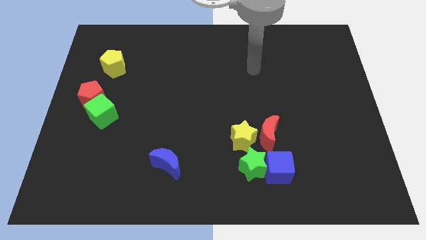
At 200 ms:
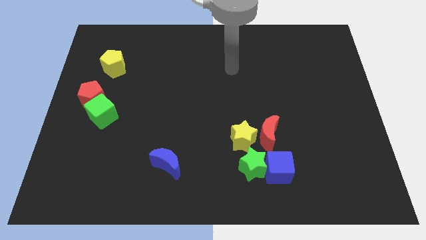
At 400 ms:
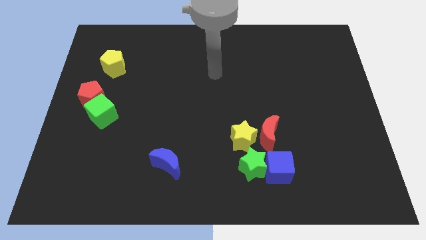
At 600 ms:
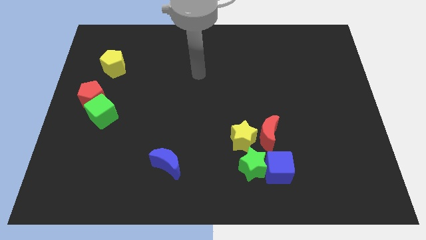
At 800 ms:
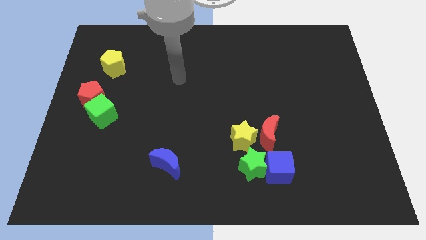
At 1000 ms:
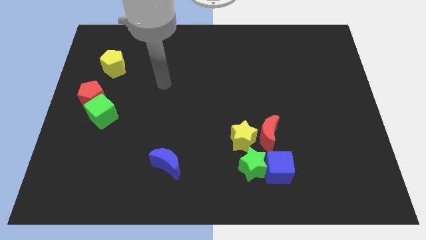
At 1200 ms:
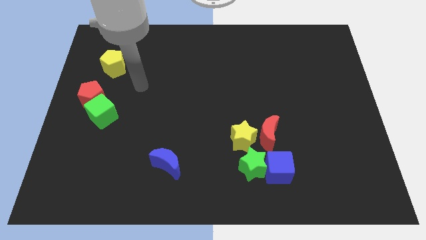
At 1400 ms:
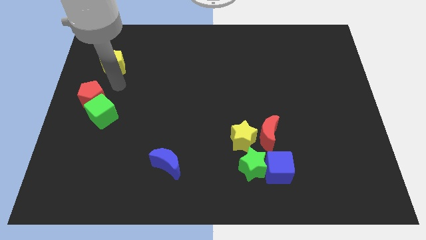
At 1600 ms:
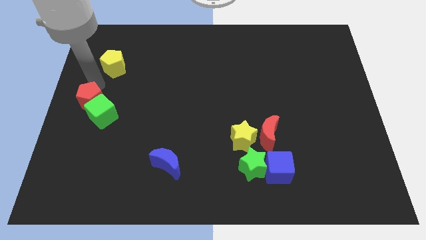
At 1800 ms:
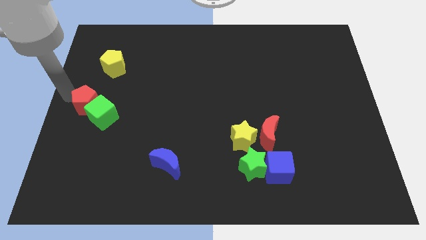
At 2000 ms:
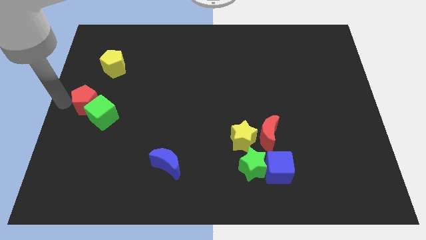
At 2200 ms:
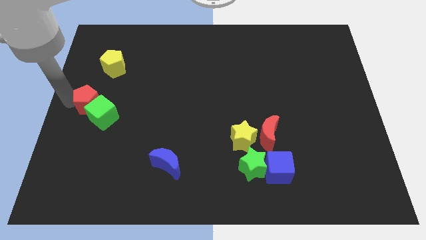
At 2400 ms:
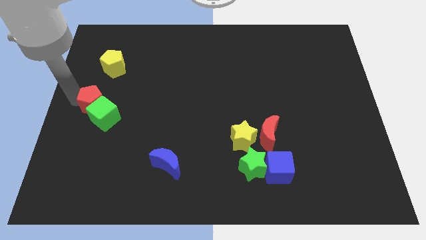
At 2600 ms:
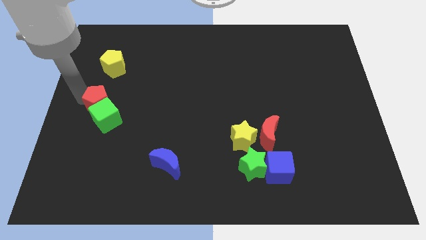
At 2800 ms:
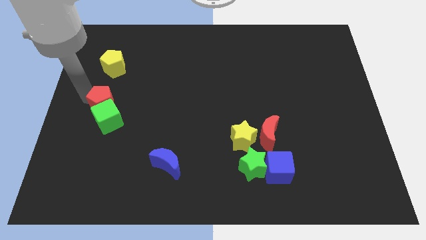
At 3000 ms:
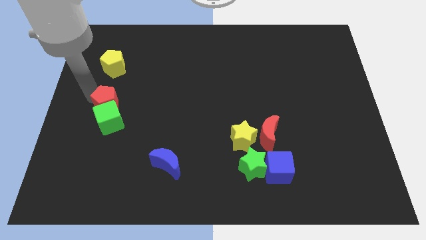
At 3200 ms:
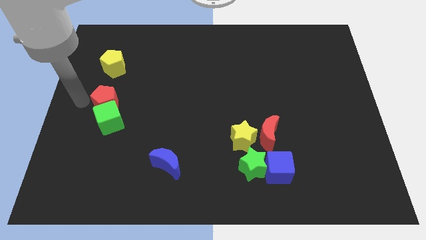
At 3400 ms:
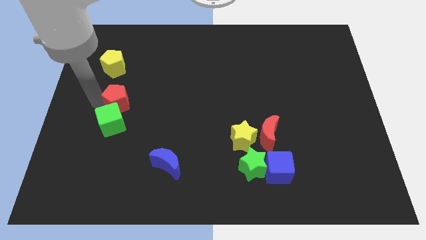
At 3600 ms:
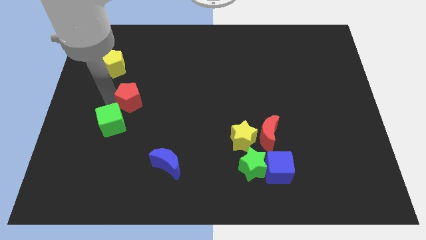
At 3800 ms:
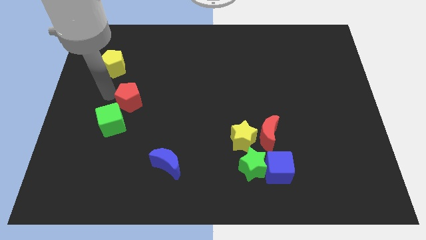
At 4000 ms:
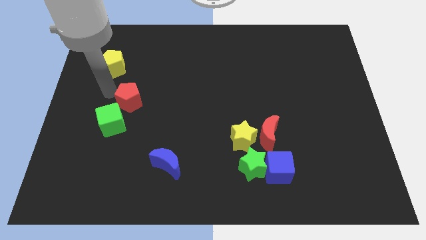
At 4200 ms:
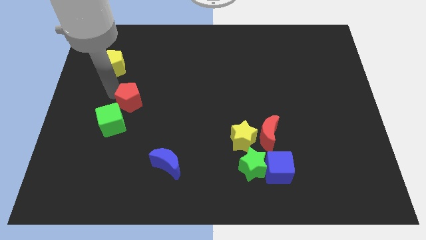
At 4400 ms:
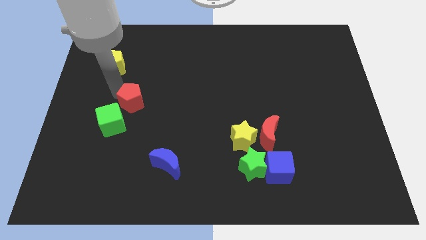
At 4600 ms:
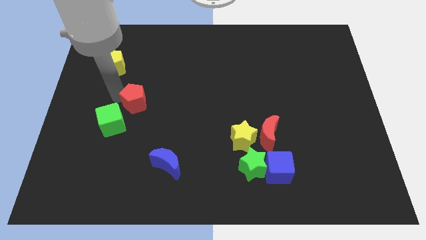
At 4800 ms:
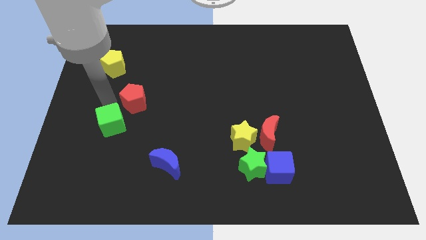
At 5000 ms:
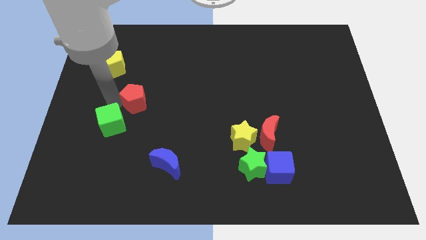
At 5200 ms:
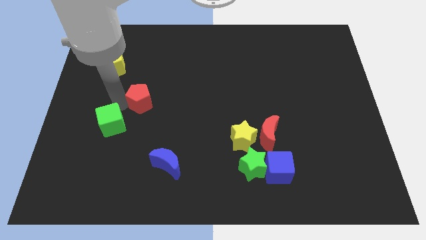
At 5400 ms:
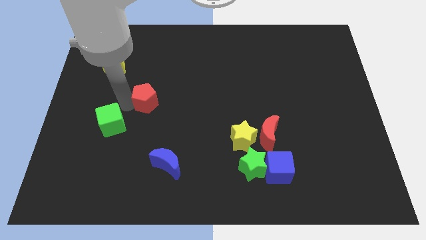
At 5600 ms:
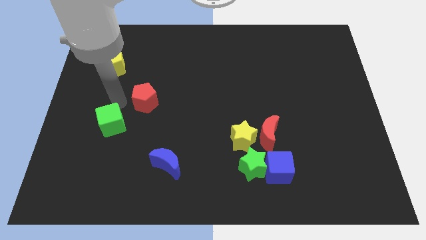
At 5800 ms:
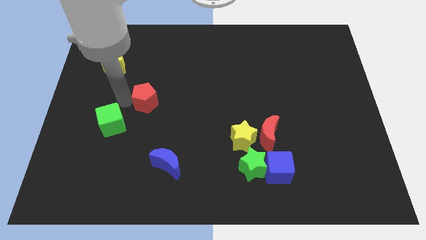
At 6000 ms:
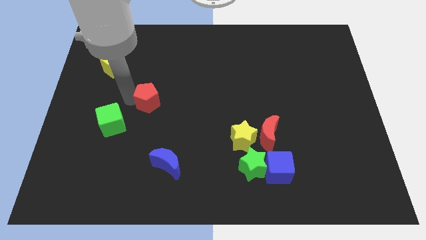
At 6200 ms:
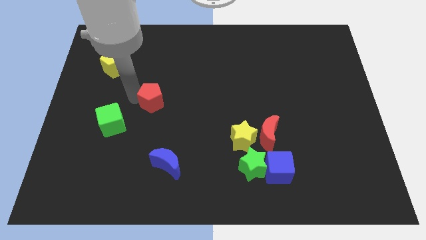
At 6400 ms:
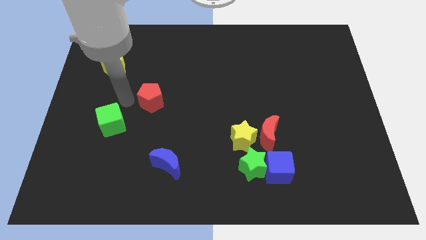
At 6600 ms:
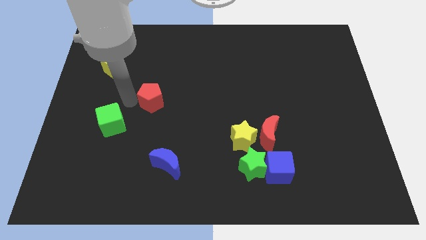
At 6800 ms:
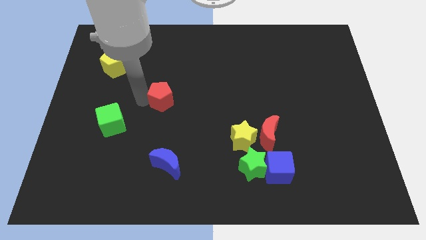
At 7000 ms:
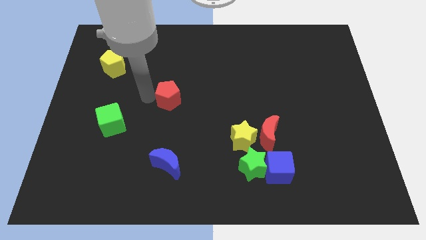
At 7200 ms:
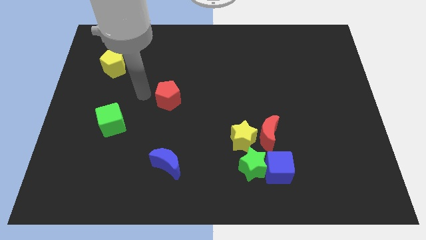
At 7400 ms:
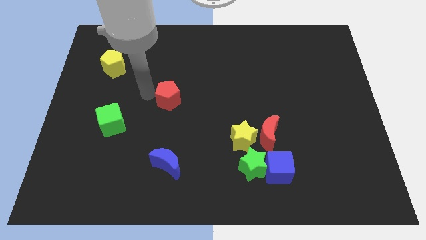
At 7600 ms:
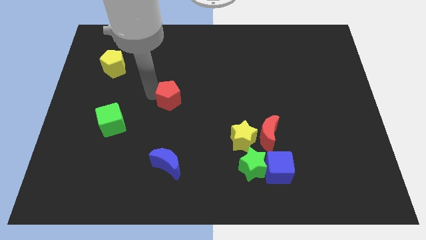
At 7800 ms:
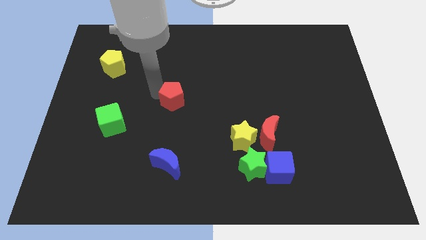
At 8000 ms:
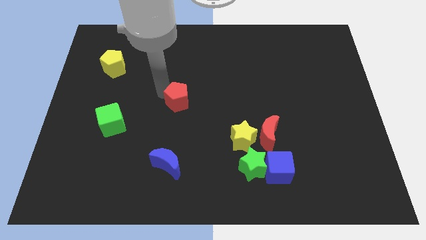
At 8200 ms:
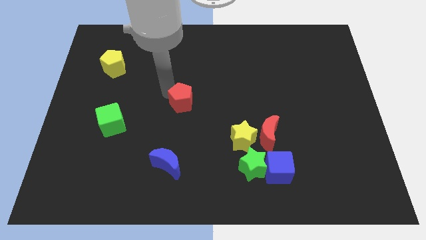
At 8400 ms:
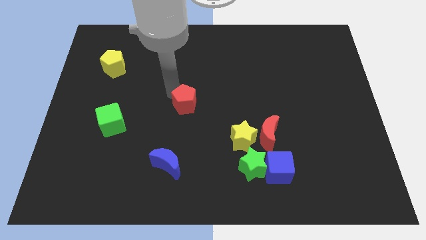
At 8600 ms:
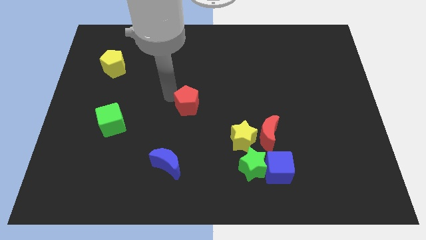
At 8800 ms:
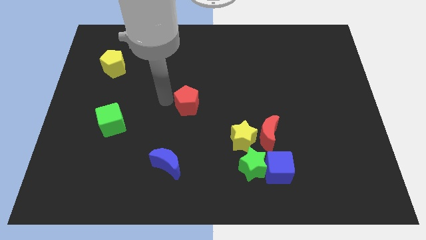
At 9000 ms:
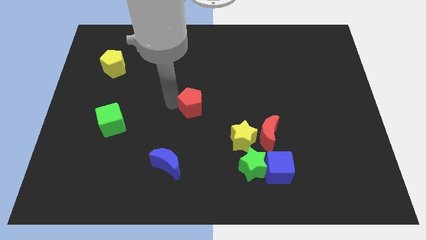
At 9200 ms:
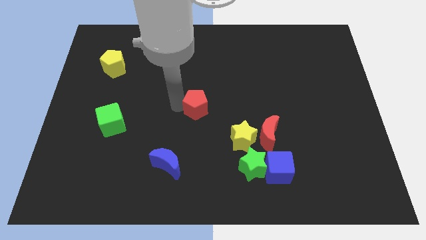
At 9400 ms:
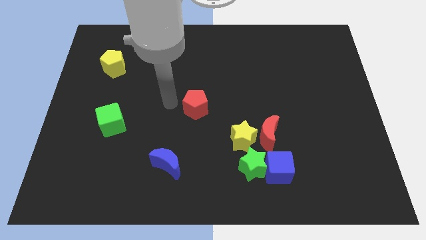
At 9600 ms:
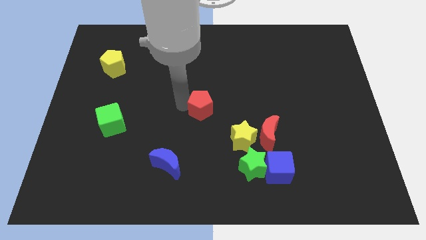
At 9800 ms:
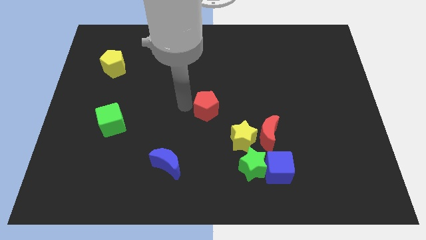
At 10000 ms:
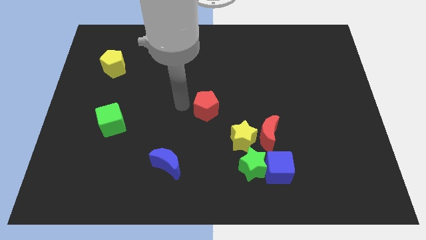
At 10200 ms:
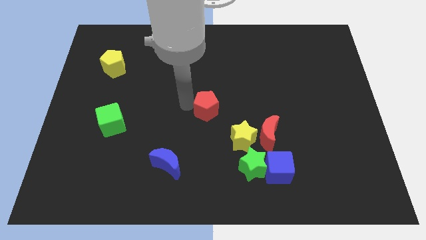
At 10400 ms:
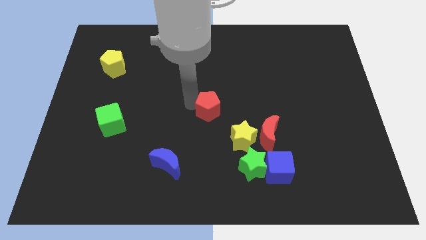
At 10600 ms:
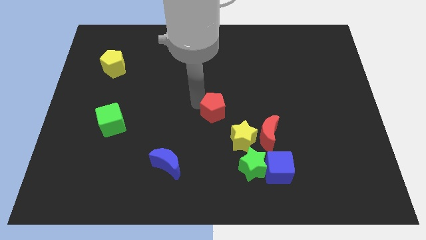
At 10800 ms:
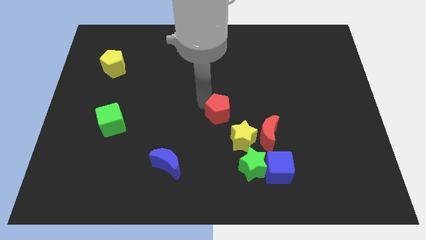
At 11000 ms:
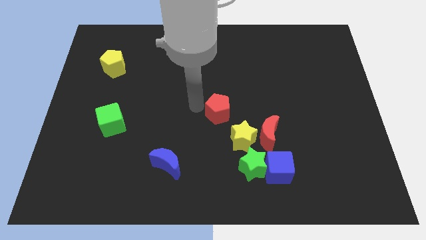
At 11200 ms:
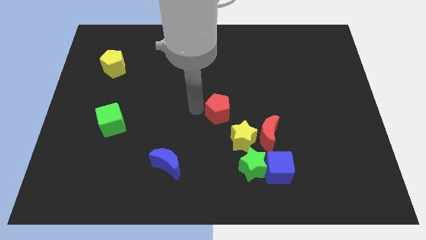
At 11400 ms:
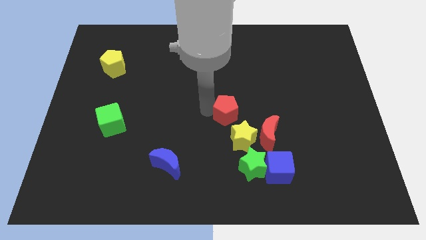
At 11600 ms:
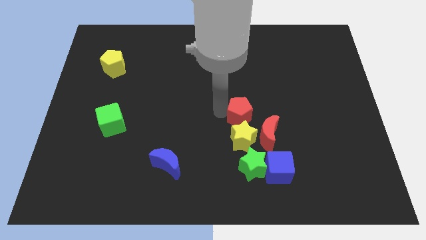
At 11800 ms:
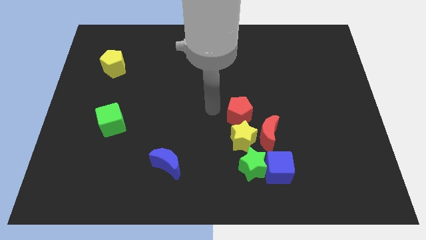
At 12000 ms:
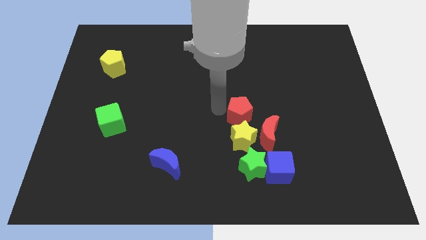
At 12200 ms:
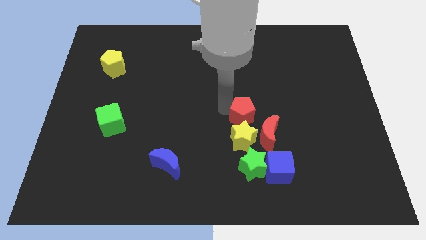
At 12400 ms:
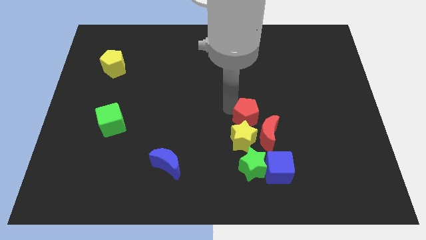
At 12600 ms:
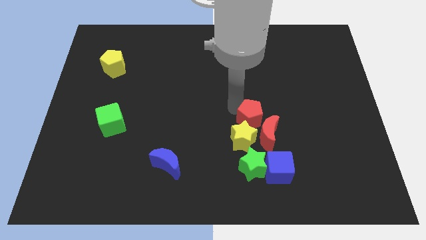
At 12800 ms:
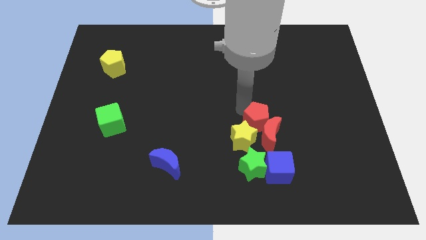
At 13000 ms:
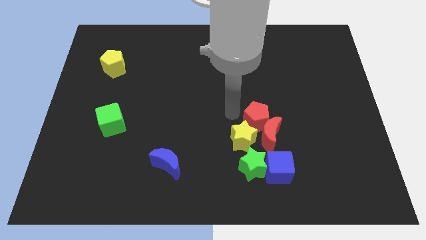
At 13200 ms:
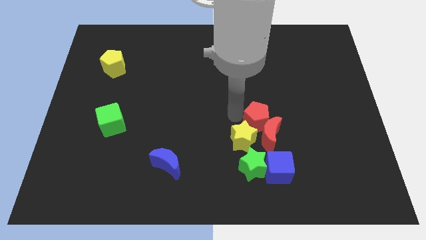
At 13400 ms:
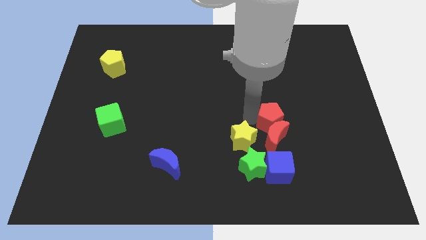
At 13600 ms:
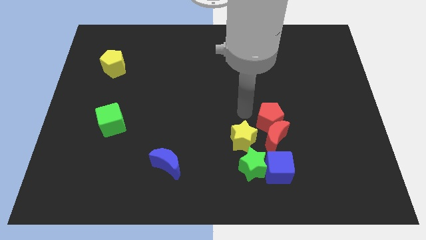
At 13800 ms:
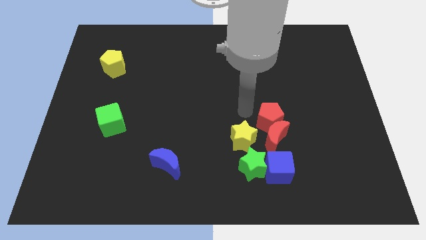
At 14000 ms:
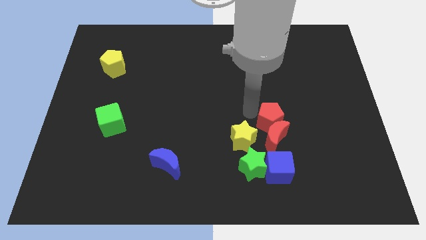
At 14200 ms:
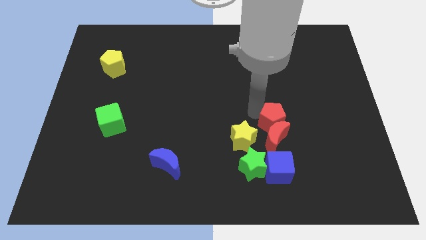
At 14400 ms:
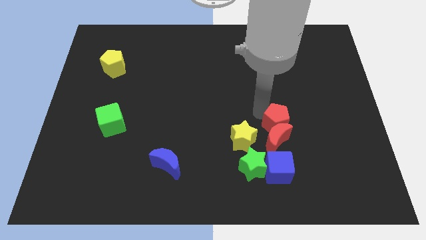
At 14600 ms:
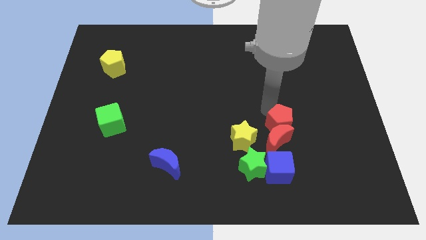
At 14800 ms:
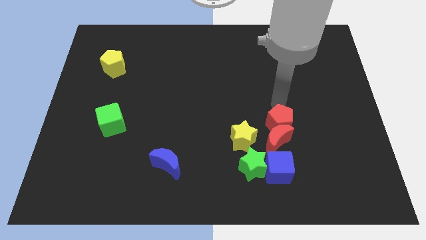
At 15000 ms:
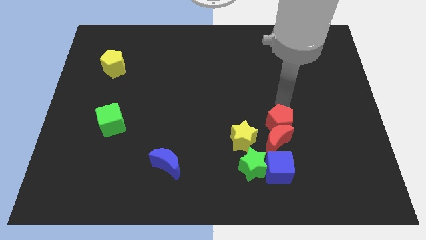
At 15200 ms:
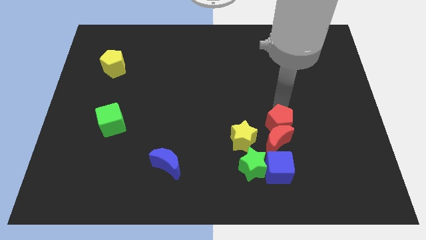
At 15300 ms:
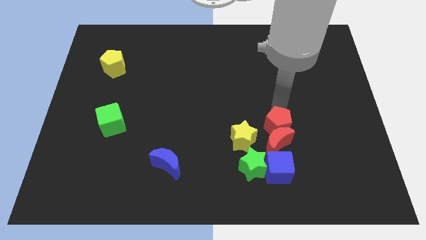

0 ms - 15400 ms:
move the red pentagon to the top right of the green star
